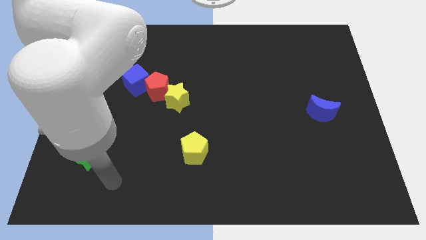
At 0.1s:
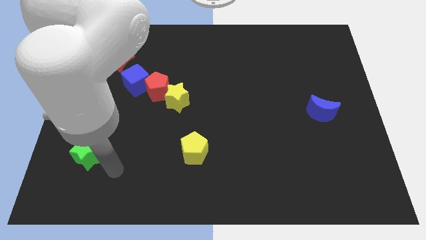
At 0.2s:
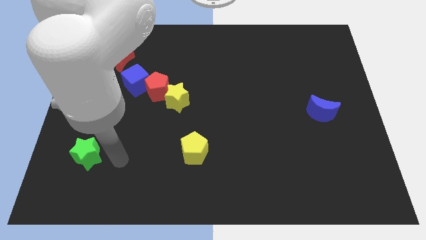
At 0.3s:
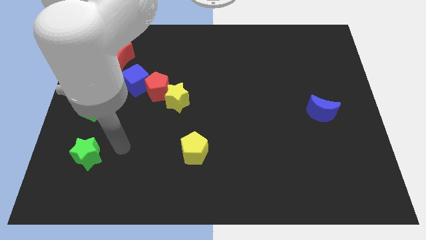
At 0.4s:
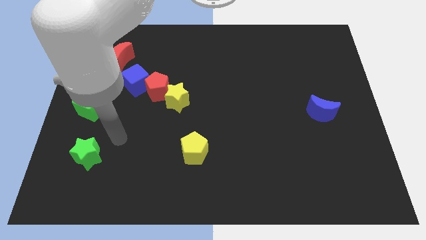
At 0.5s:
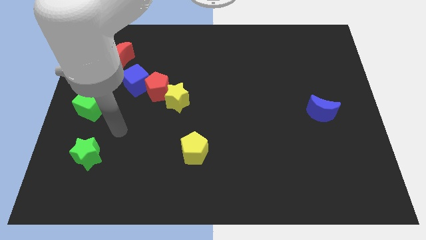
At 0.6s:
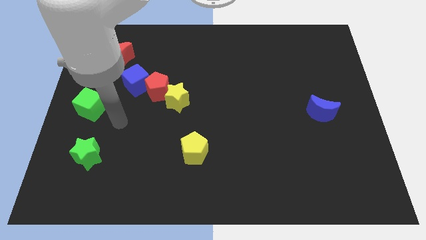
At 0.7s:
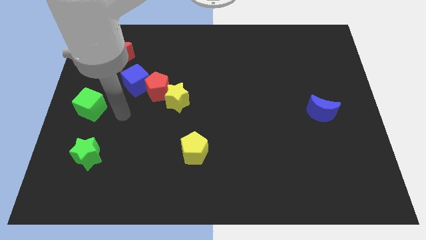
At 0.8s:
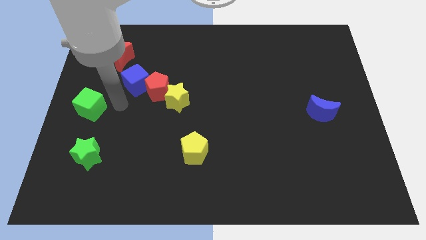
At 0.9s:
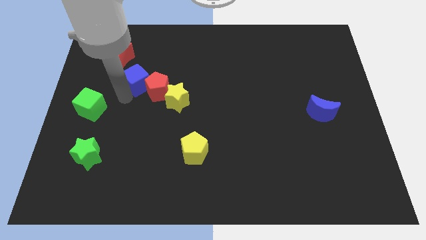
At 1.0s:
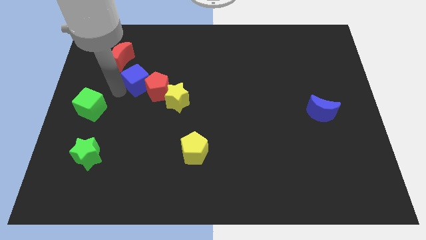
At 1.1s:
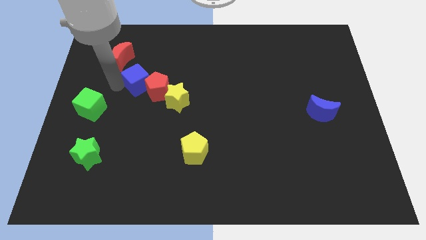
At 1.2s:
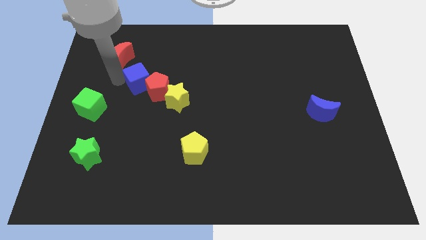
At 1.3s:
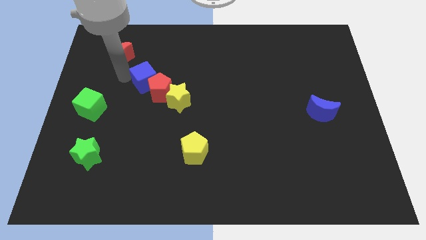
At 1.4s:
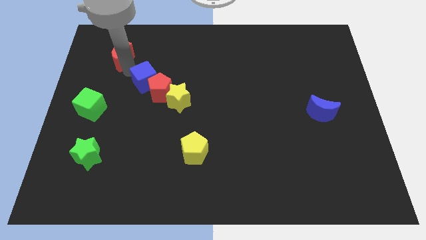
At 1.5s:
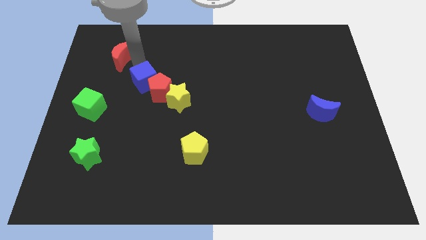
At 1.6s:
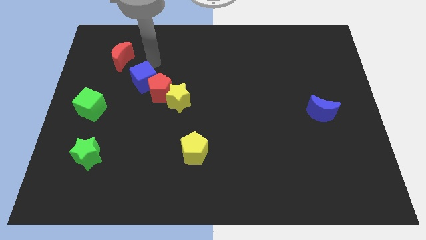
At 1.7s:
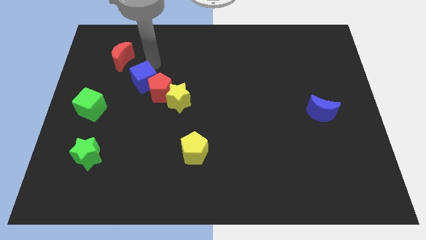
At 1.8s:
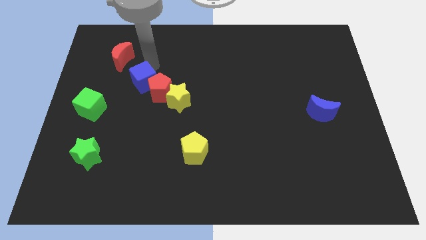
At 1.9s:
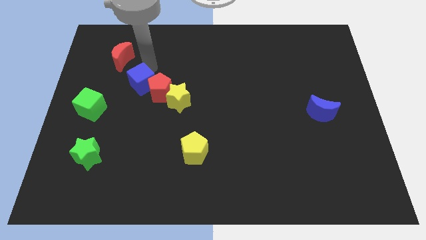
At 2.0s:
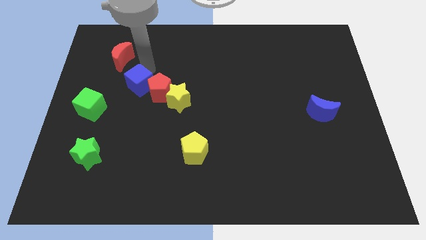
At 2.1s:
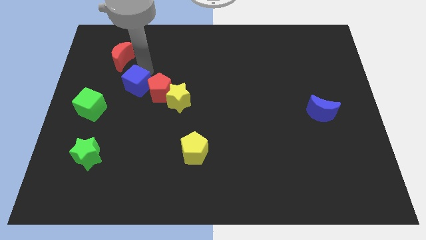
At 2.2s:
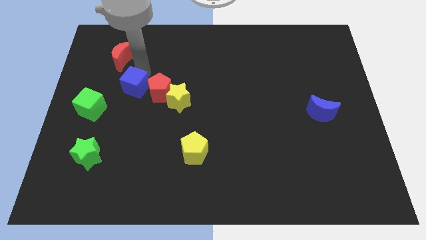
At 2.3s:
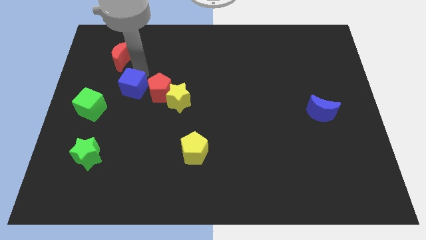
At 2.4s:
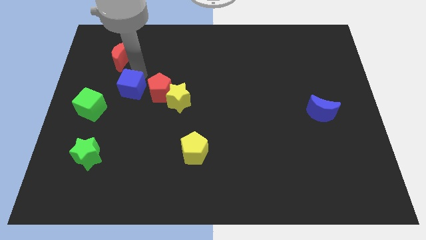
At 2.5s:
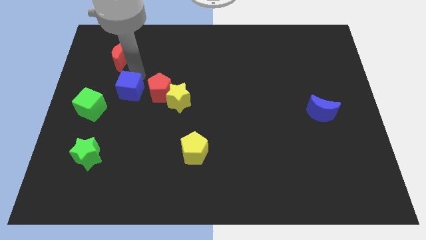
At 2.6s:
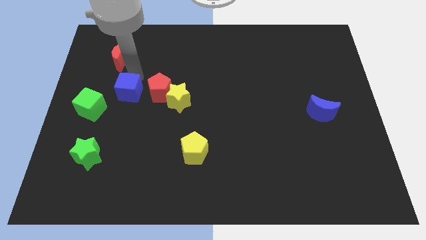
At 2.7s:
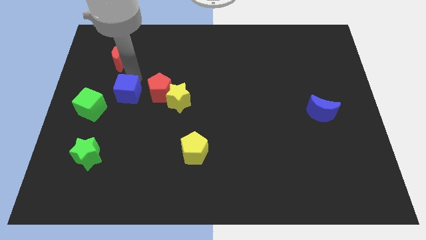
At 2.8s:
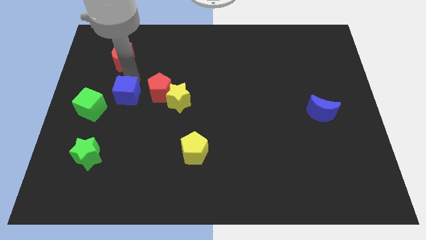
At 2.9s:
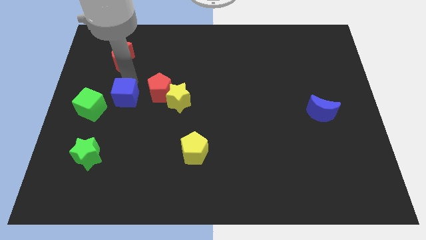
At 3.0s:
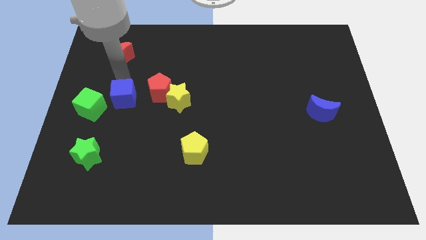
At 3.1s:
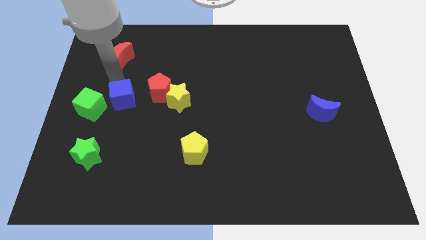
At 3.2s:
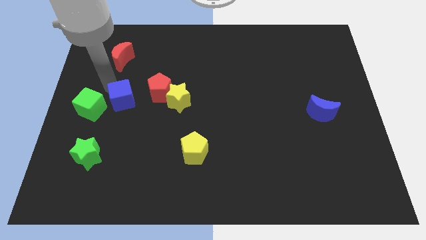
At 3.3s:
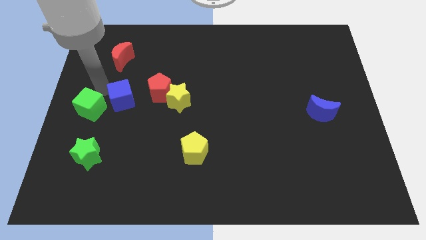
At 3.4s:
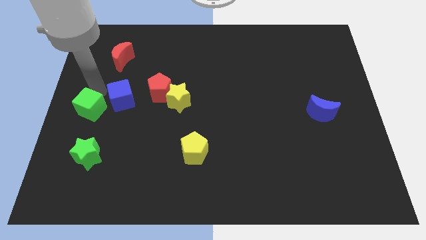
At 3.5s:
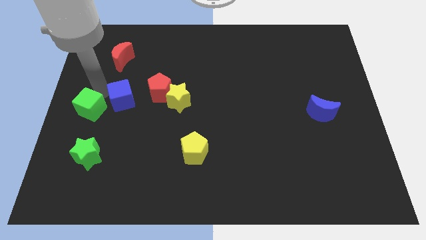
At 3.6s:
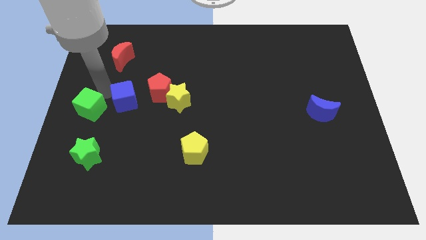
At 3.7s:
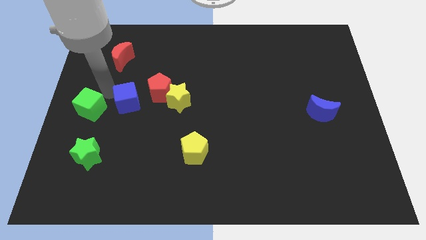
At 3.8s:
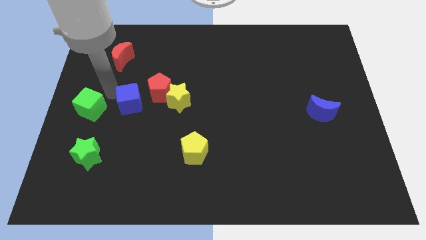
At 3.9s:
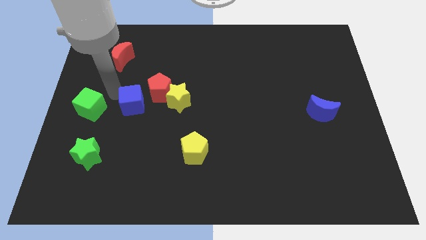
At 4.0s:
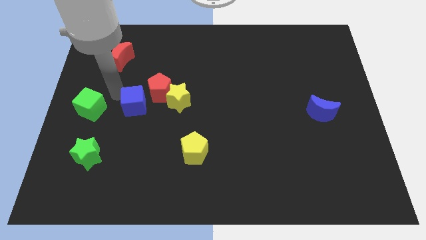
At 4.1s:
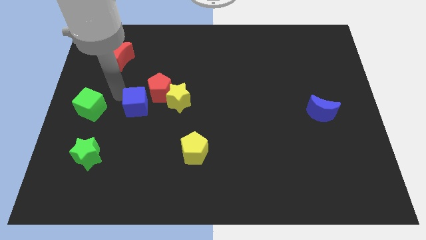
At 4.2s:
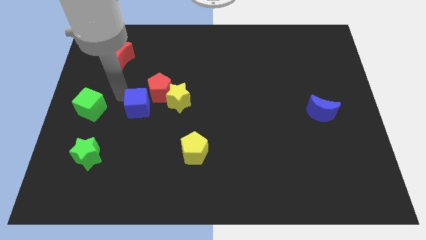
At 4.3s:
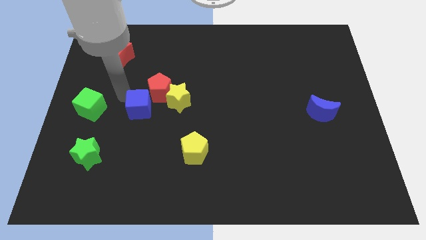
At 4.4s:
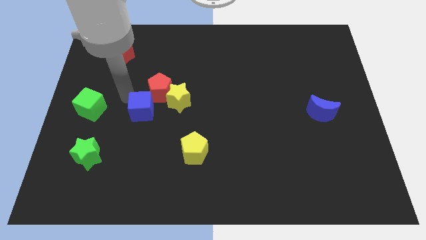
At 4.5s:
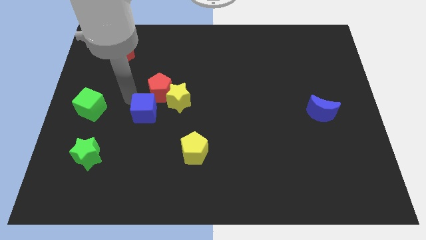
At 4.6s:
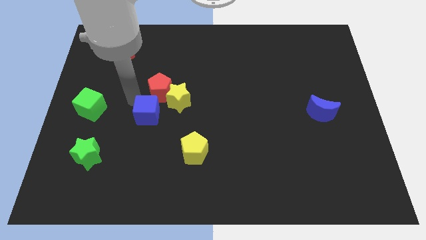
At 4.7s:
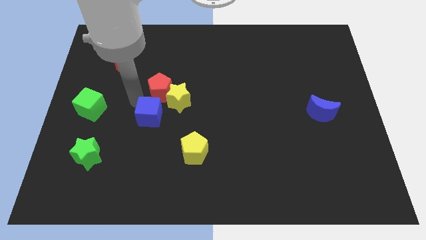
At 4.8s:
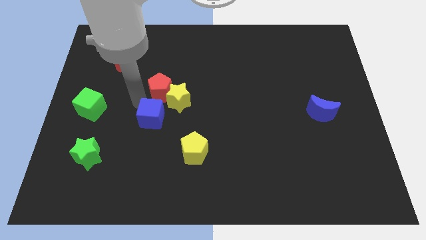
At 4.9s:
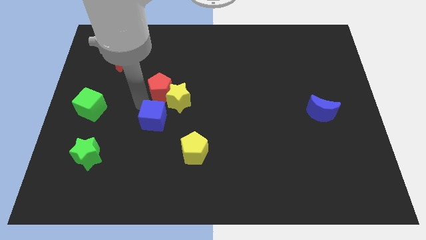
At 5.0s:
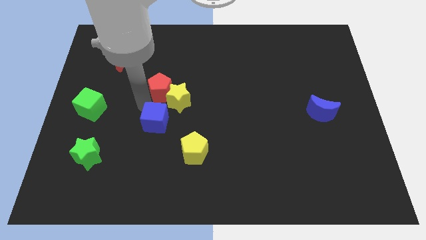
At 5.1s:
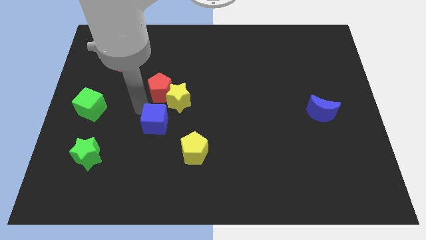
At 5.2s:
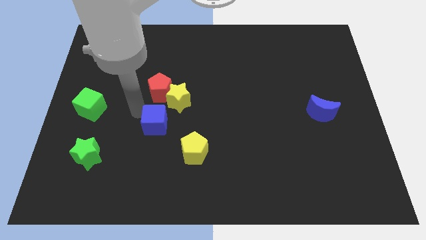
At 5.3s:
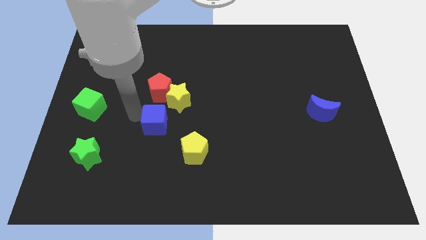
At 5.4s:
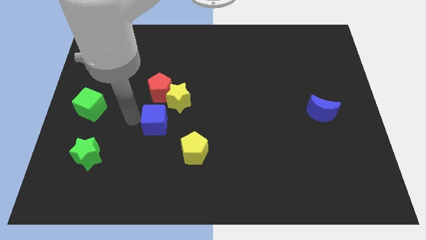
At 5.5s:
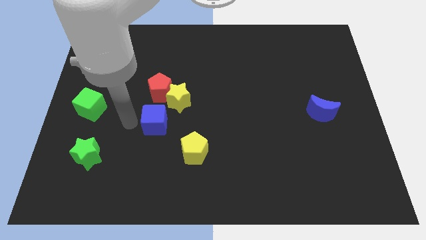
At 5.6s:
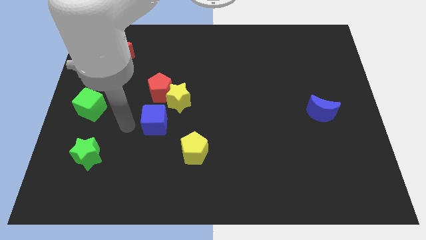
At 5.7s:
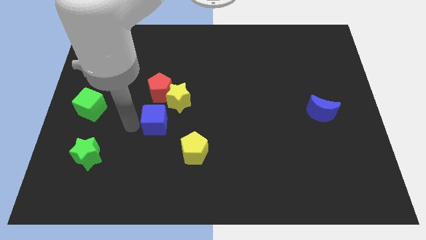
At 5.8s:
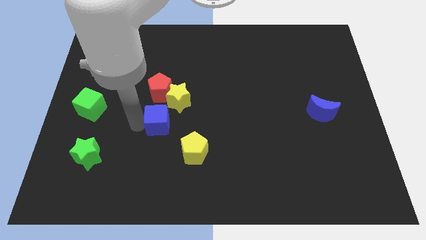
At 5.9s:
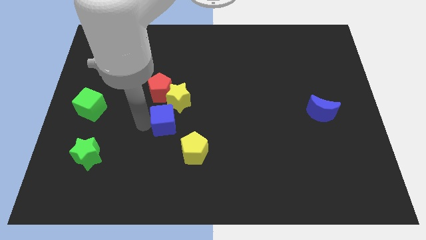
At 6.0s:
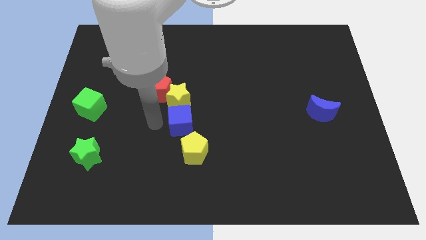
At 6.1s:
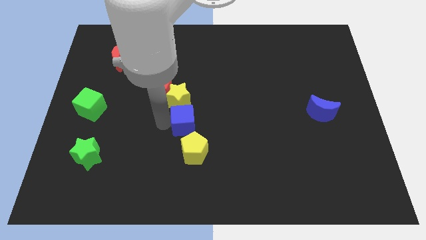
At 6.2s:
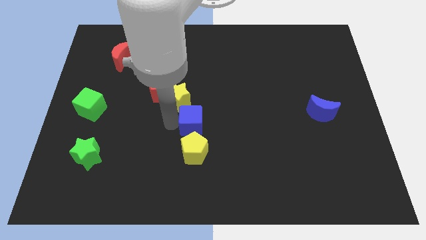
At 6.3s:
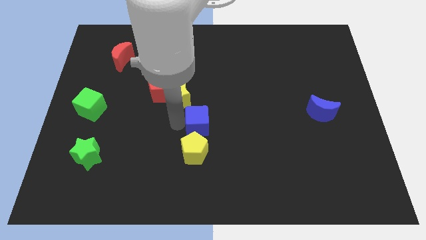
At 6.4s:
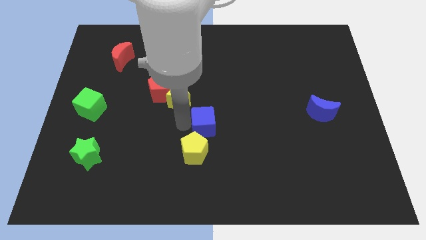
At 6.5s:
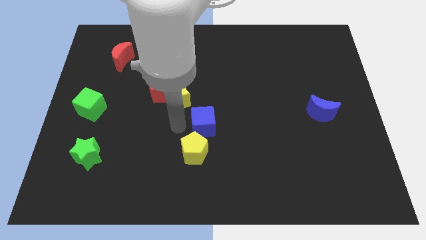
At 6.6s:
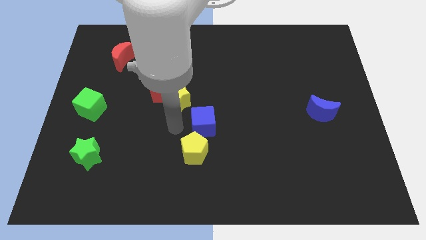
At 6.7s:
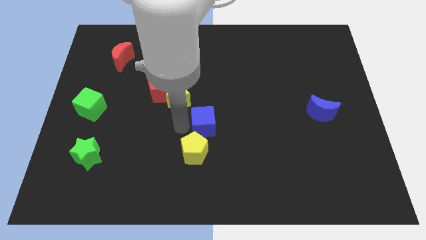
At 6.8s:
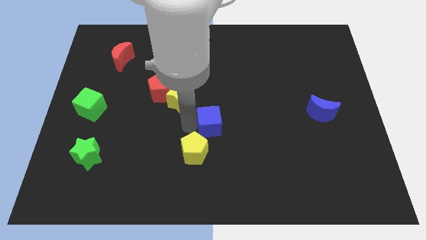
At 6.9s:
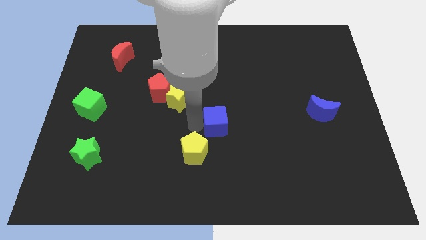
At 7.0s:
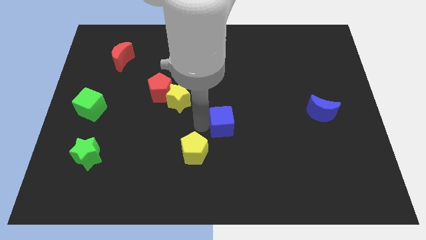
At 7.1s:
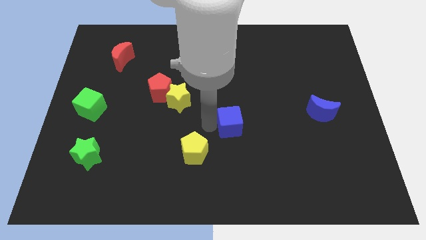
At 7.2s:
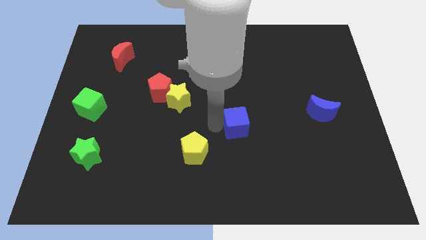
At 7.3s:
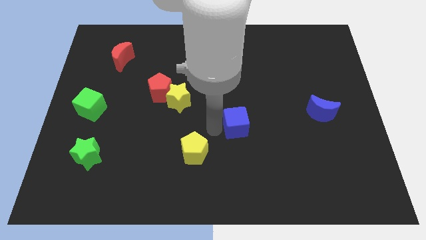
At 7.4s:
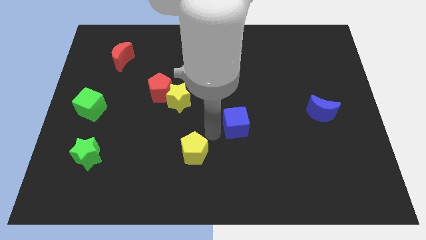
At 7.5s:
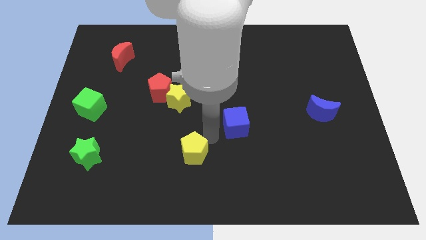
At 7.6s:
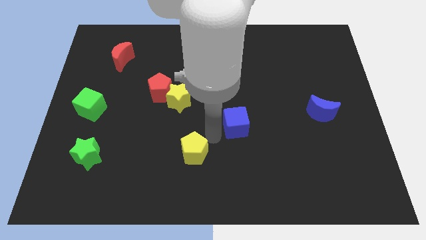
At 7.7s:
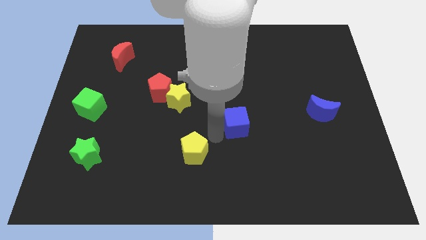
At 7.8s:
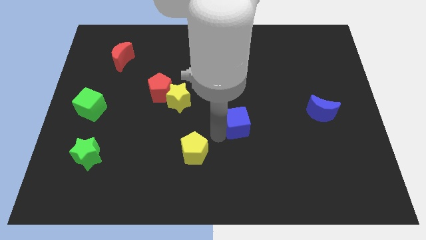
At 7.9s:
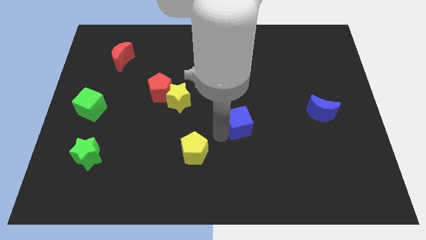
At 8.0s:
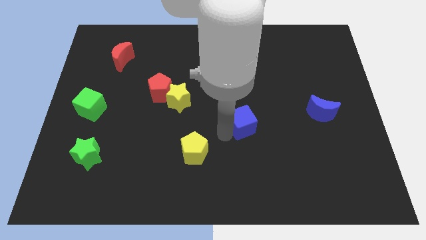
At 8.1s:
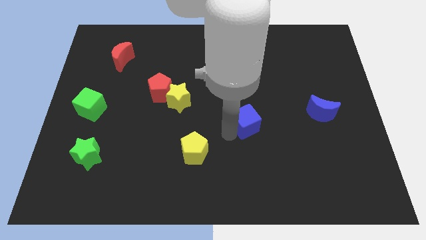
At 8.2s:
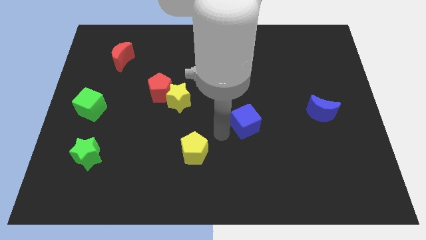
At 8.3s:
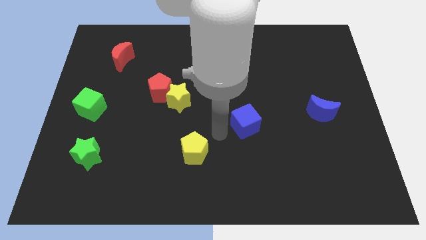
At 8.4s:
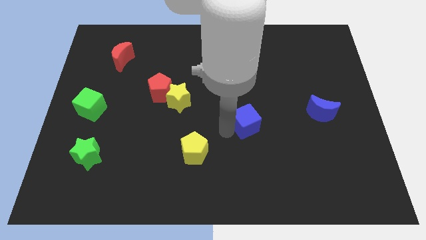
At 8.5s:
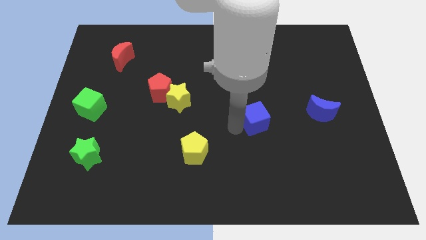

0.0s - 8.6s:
slide the blue cube just left of the blue moon
